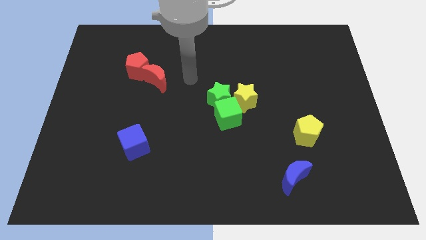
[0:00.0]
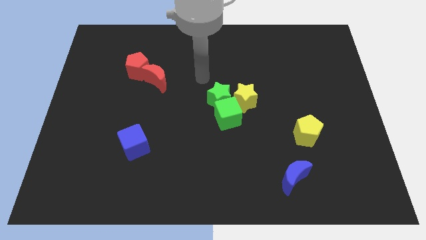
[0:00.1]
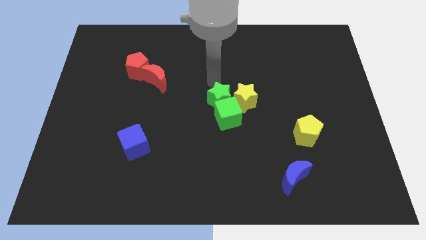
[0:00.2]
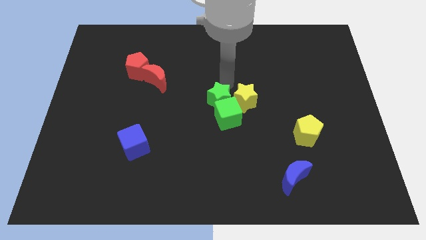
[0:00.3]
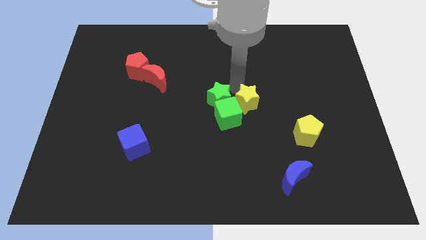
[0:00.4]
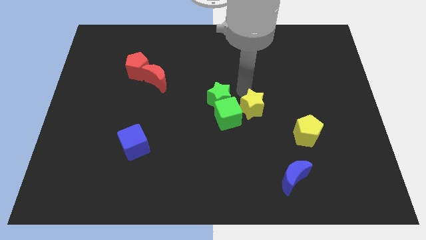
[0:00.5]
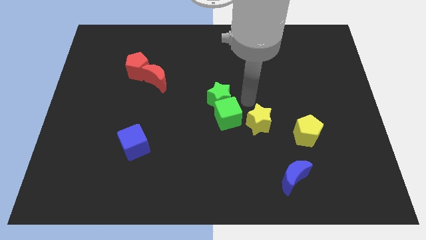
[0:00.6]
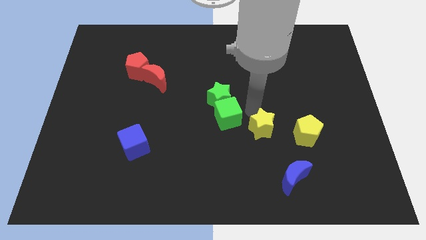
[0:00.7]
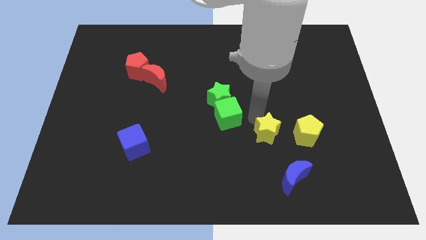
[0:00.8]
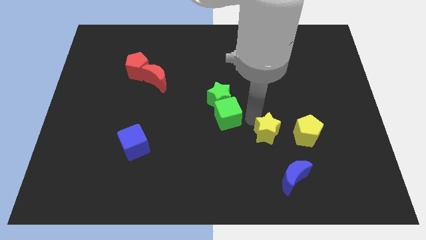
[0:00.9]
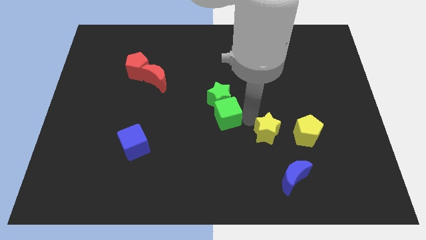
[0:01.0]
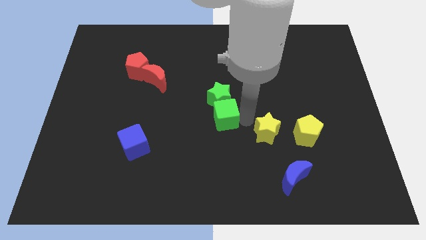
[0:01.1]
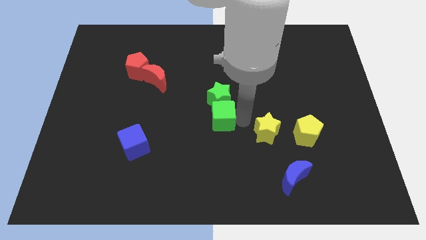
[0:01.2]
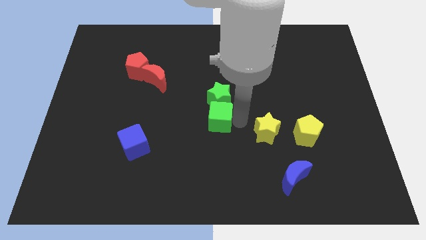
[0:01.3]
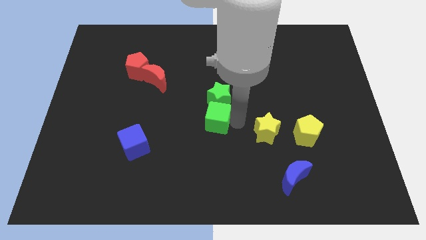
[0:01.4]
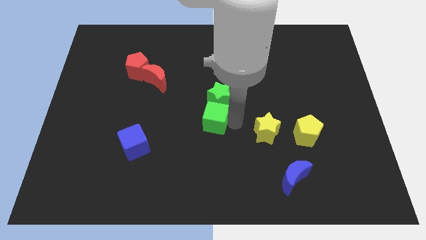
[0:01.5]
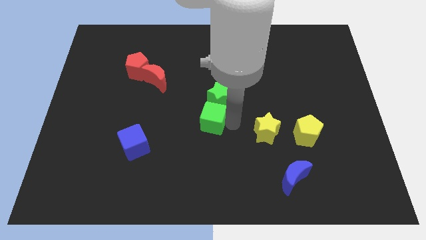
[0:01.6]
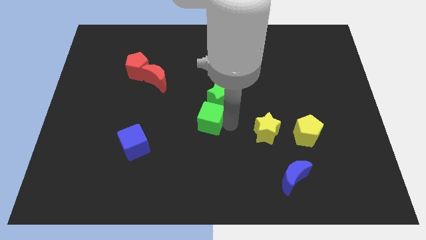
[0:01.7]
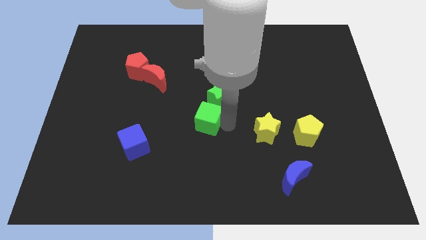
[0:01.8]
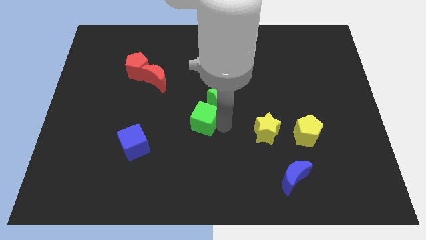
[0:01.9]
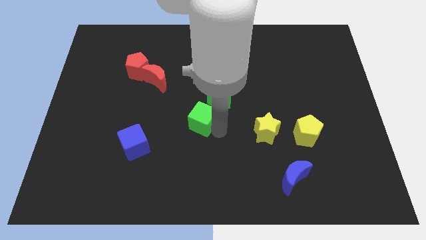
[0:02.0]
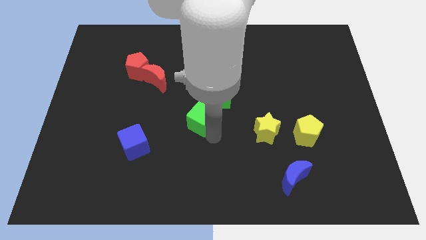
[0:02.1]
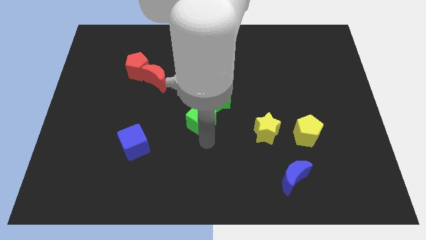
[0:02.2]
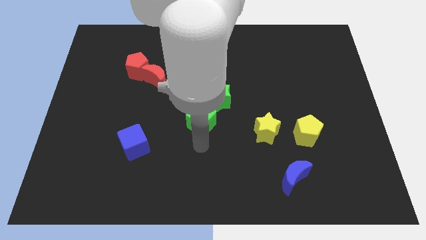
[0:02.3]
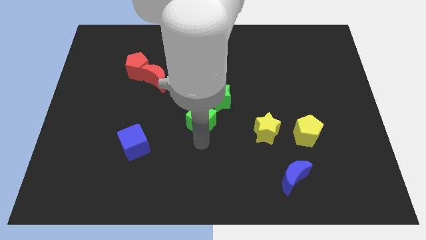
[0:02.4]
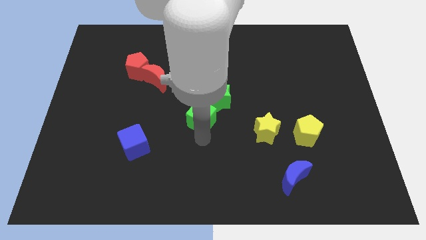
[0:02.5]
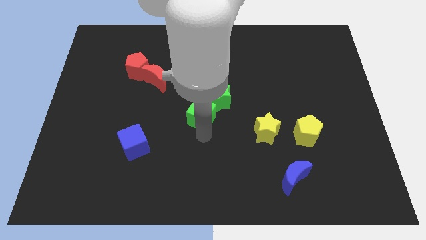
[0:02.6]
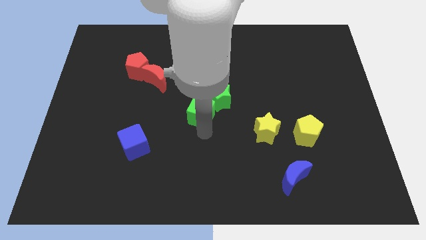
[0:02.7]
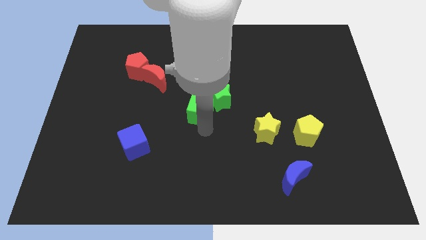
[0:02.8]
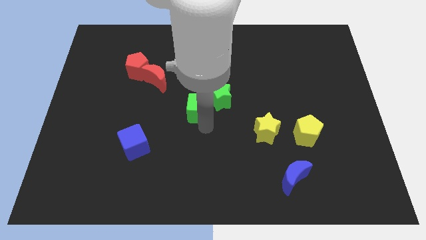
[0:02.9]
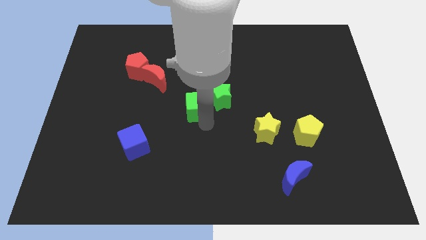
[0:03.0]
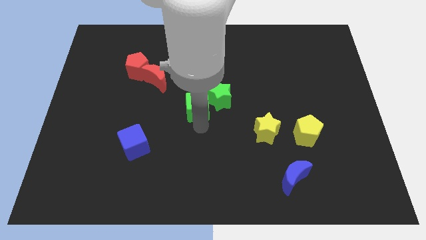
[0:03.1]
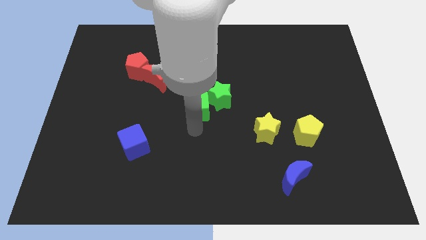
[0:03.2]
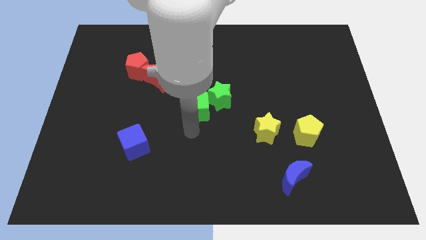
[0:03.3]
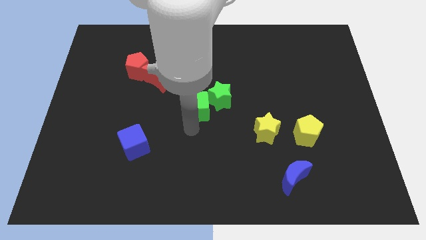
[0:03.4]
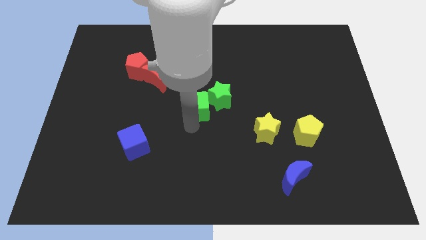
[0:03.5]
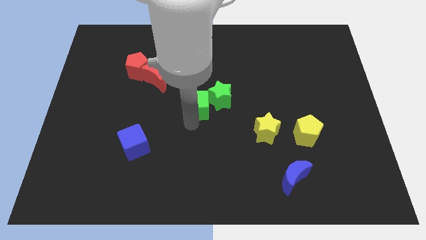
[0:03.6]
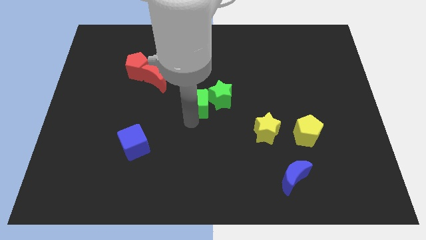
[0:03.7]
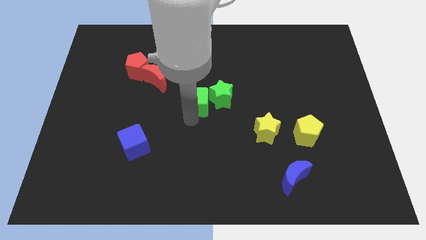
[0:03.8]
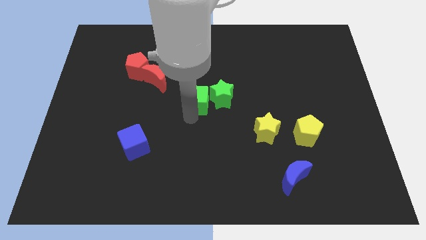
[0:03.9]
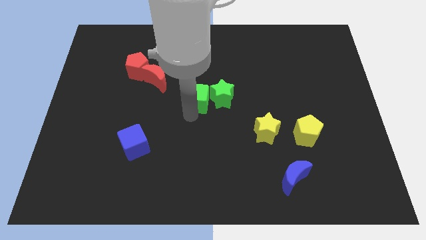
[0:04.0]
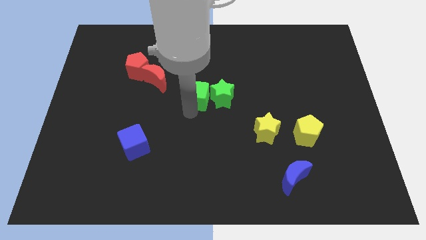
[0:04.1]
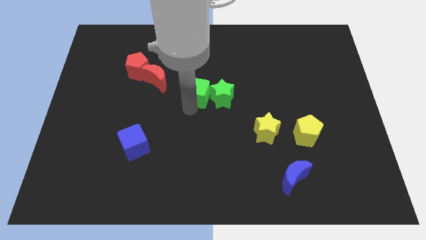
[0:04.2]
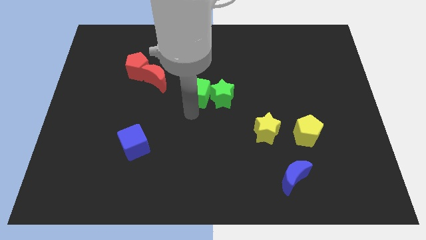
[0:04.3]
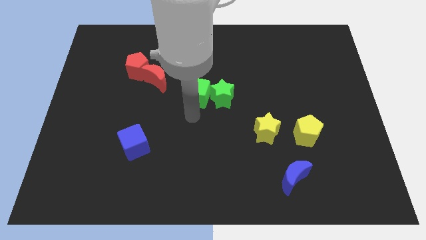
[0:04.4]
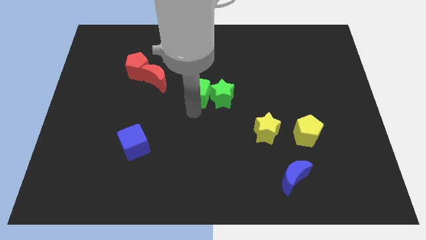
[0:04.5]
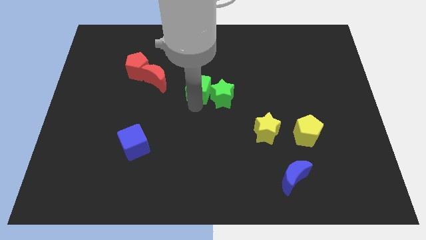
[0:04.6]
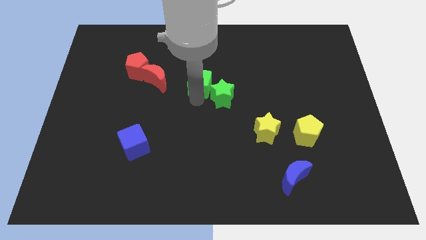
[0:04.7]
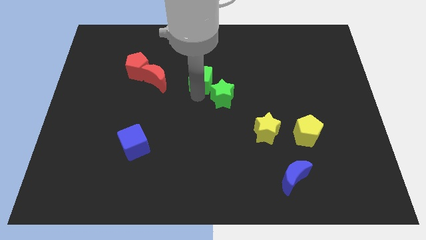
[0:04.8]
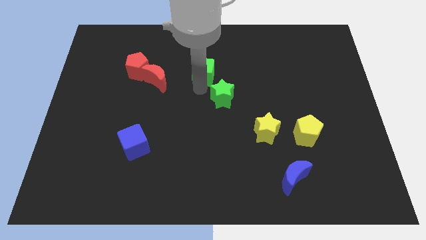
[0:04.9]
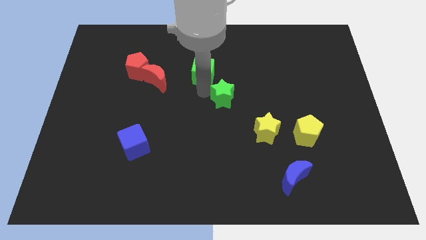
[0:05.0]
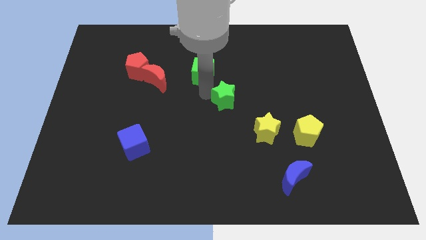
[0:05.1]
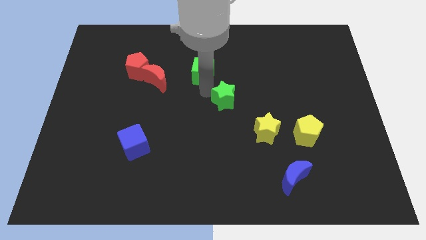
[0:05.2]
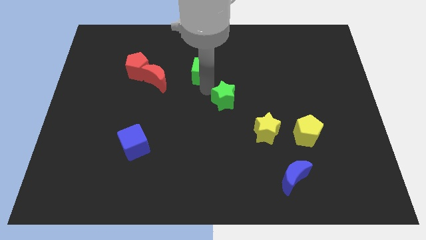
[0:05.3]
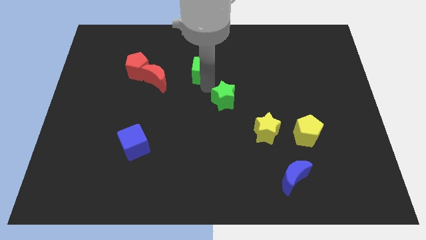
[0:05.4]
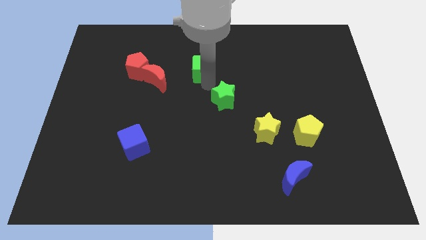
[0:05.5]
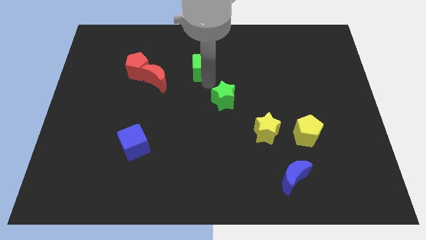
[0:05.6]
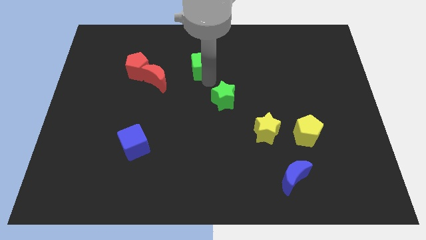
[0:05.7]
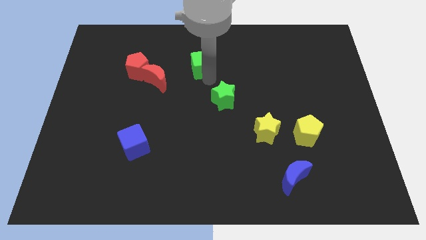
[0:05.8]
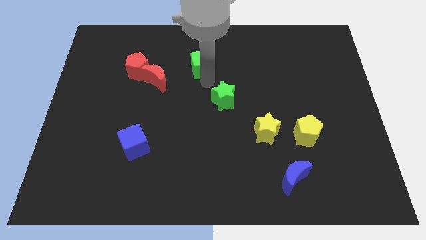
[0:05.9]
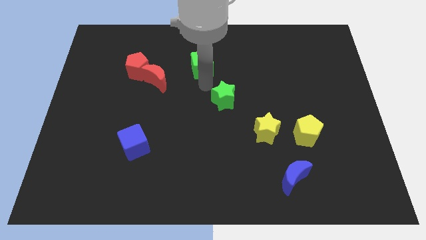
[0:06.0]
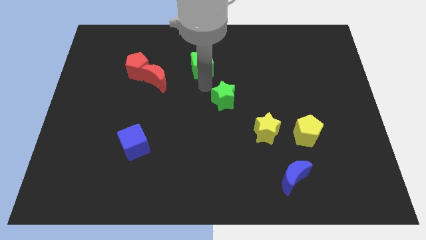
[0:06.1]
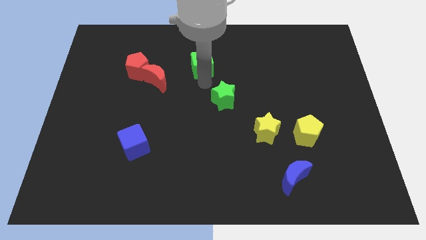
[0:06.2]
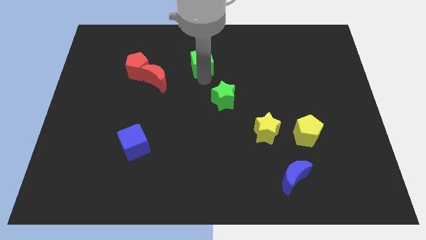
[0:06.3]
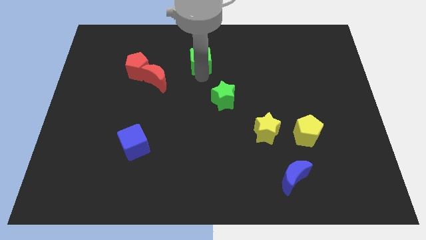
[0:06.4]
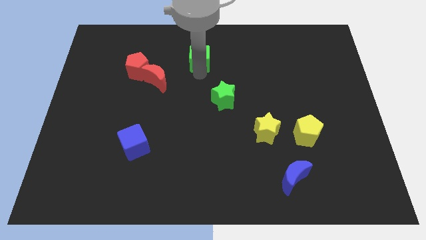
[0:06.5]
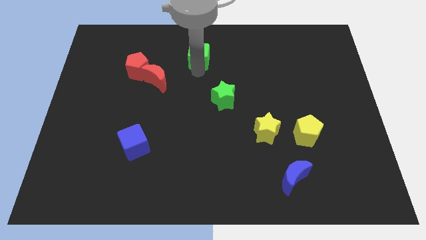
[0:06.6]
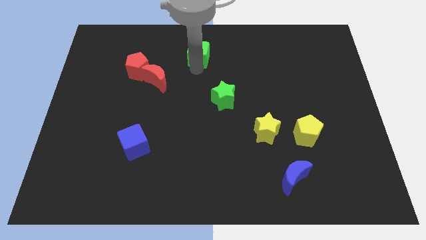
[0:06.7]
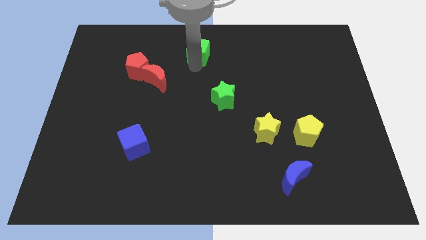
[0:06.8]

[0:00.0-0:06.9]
move the green cube to the towards your base
